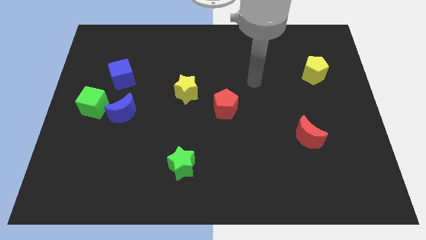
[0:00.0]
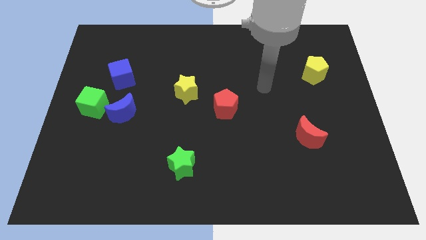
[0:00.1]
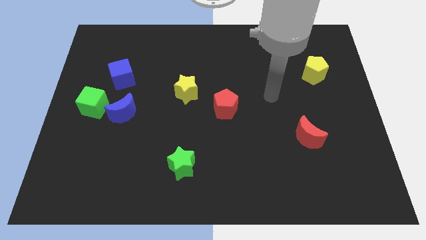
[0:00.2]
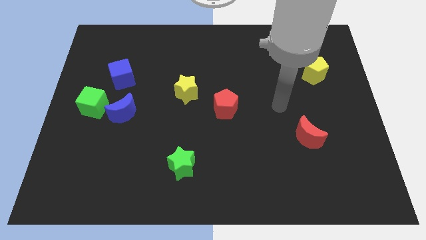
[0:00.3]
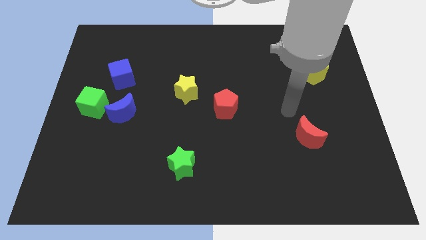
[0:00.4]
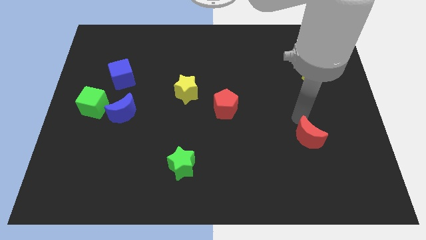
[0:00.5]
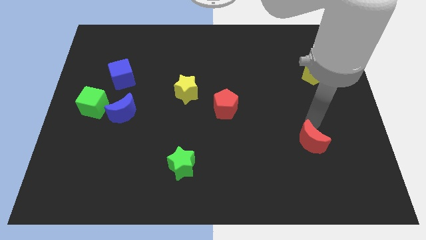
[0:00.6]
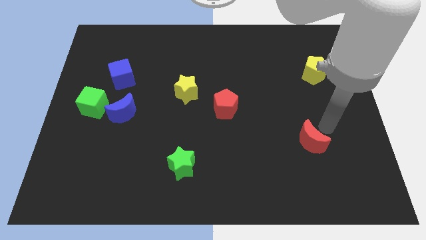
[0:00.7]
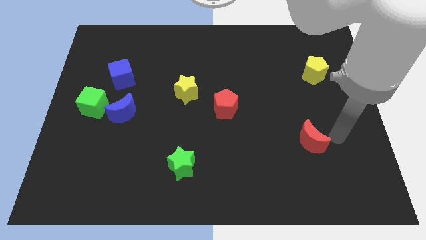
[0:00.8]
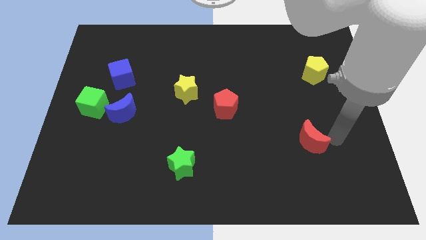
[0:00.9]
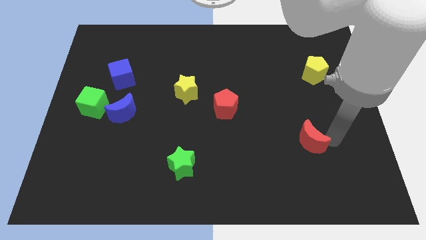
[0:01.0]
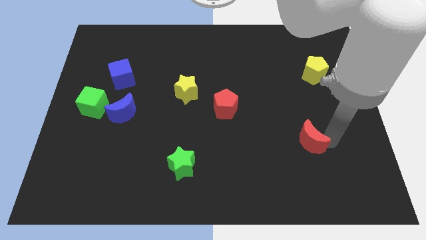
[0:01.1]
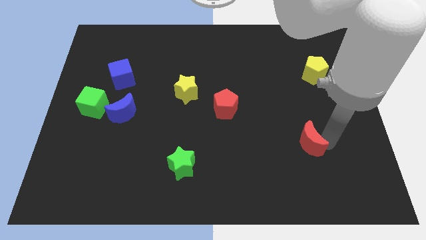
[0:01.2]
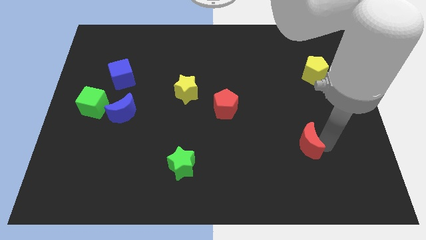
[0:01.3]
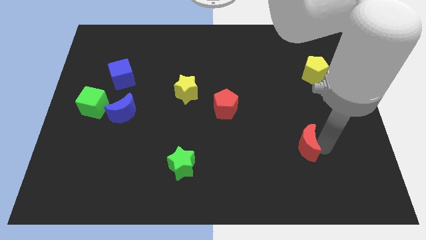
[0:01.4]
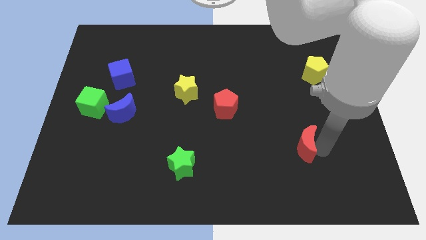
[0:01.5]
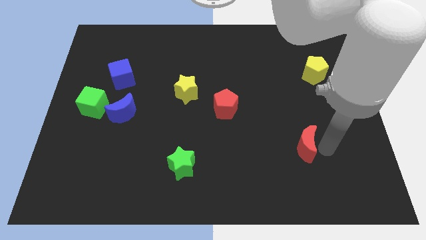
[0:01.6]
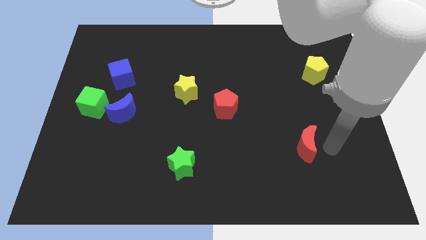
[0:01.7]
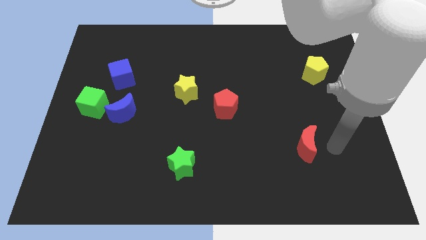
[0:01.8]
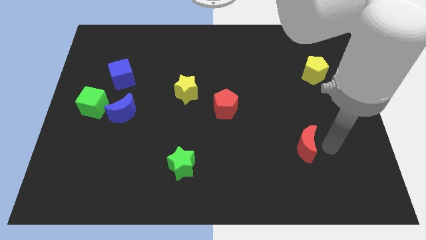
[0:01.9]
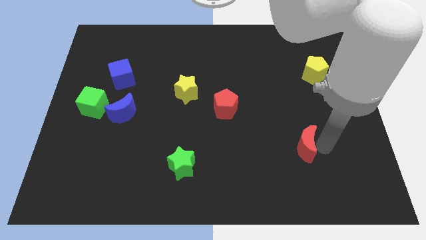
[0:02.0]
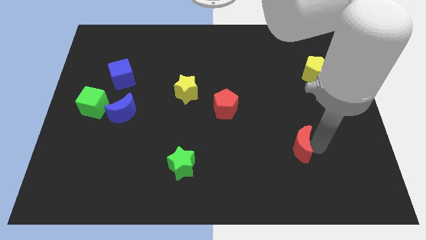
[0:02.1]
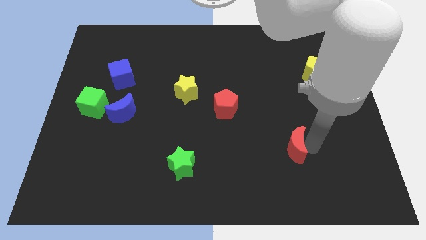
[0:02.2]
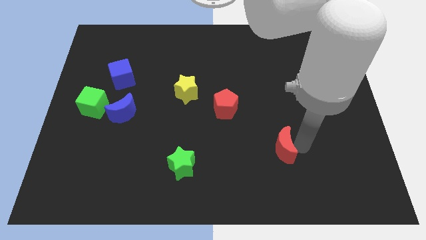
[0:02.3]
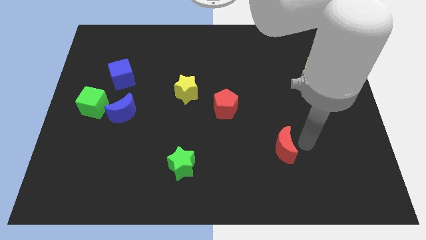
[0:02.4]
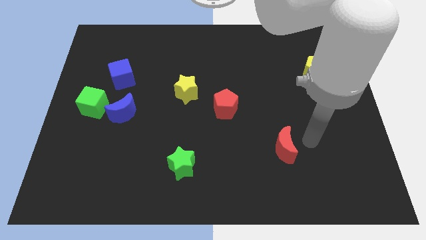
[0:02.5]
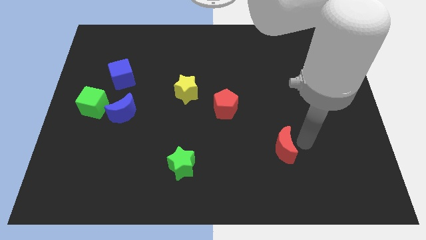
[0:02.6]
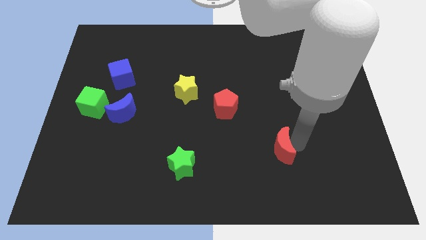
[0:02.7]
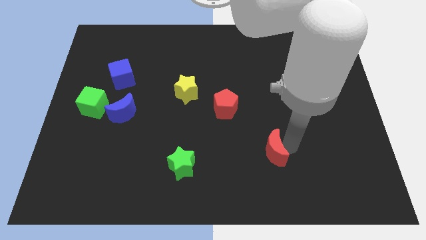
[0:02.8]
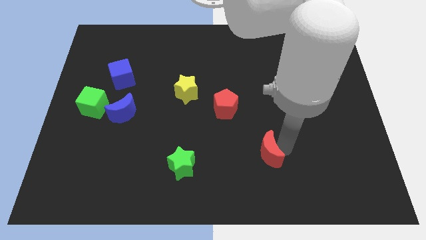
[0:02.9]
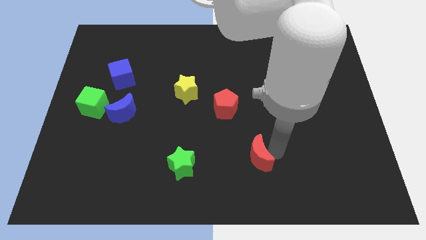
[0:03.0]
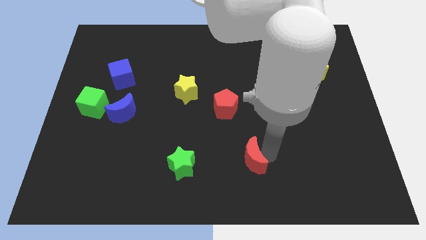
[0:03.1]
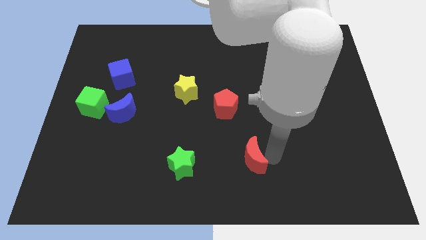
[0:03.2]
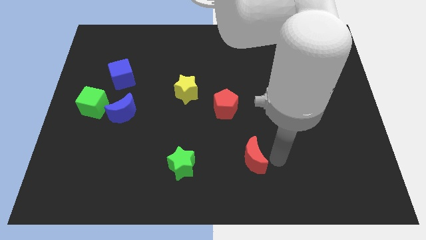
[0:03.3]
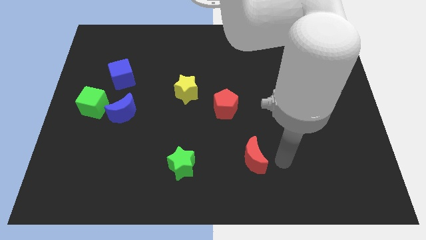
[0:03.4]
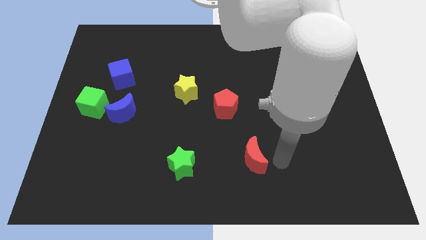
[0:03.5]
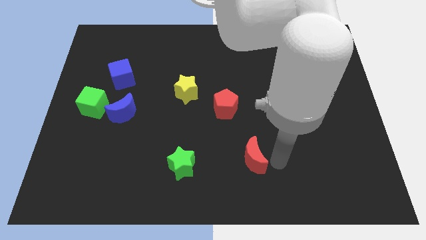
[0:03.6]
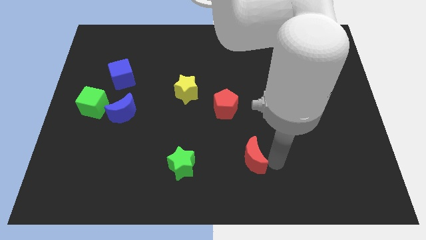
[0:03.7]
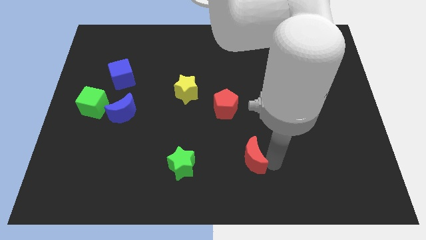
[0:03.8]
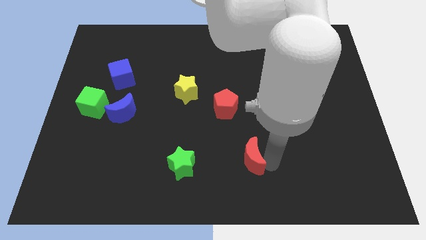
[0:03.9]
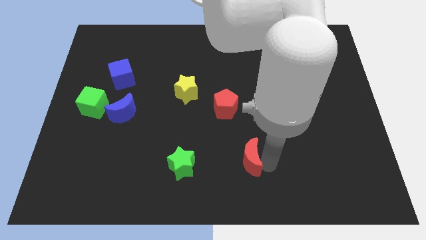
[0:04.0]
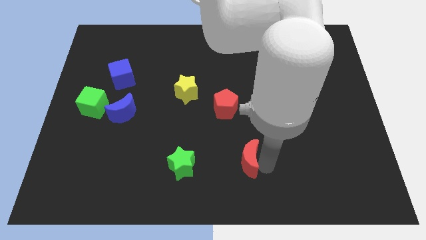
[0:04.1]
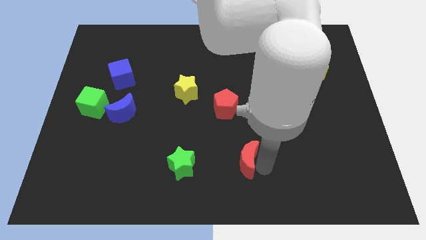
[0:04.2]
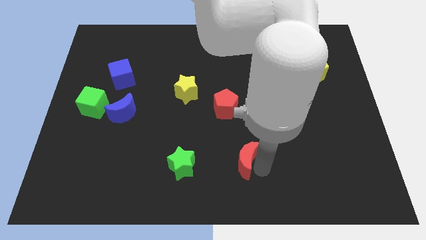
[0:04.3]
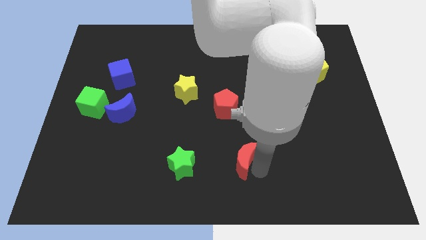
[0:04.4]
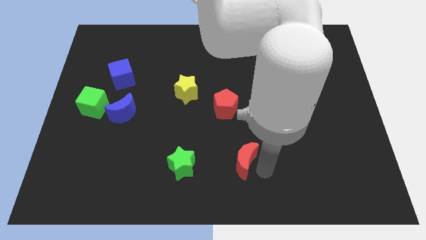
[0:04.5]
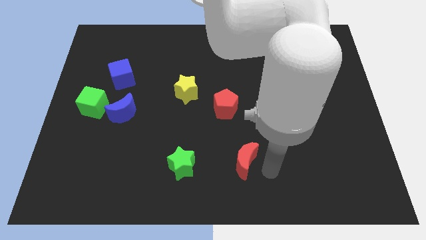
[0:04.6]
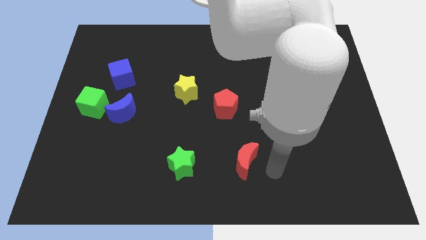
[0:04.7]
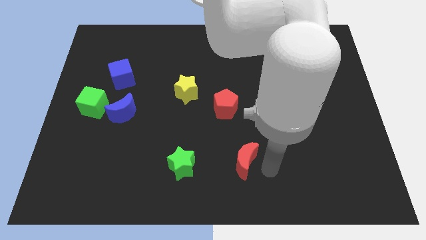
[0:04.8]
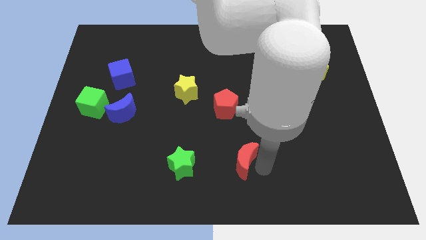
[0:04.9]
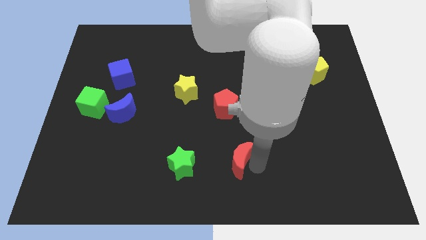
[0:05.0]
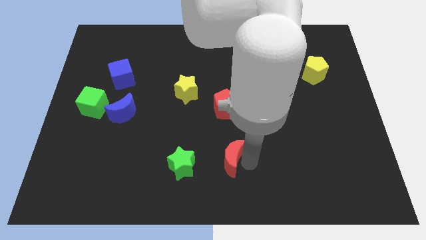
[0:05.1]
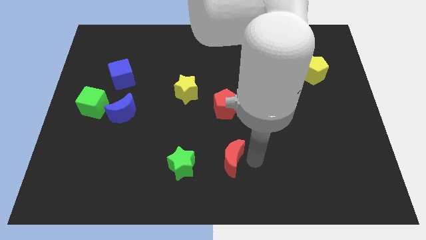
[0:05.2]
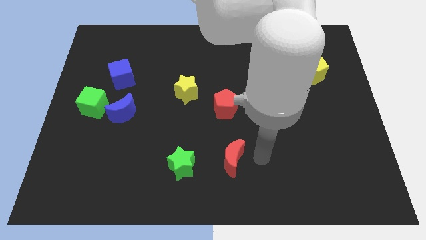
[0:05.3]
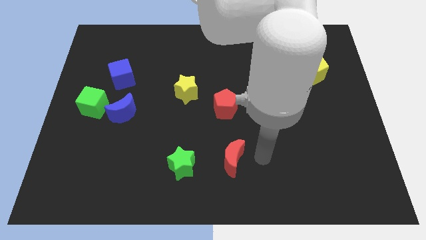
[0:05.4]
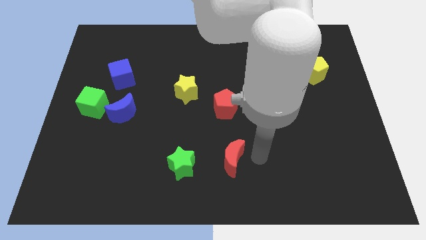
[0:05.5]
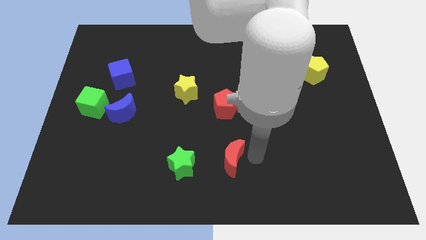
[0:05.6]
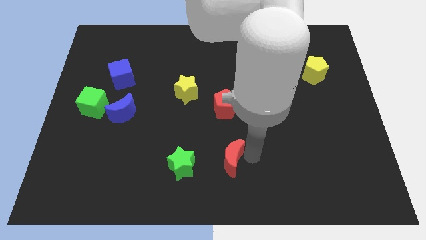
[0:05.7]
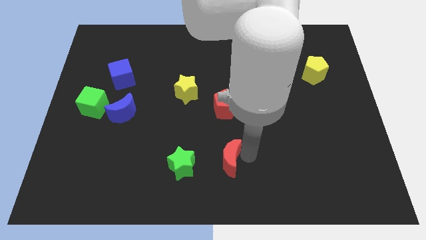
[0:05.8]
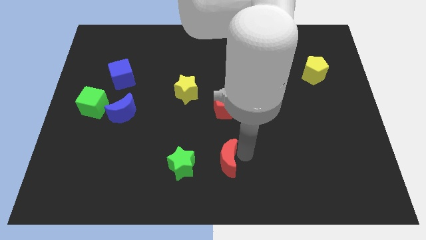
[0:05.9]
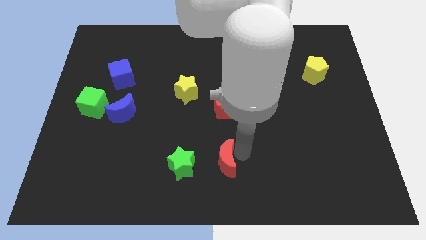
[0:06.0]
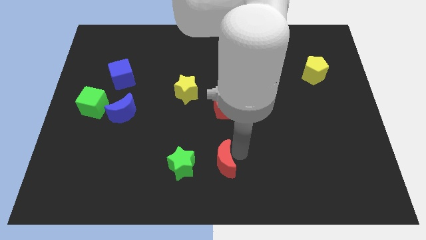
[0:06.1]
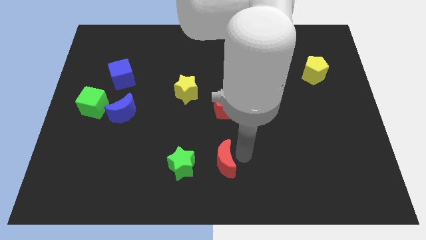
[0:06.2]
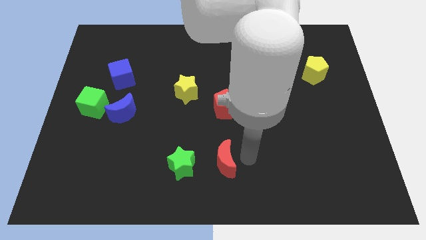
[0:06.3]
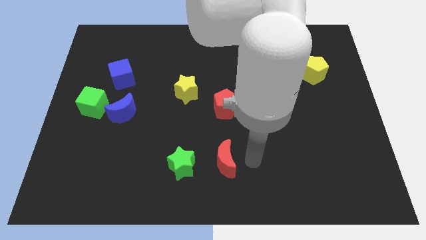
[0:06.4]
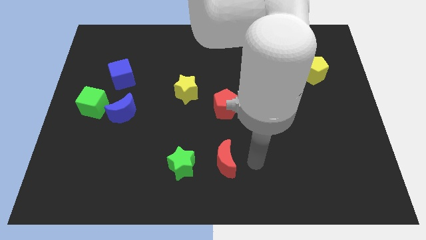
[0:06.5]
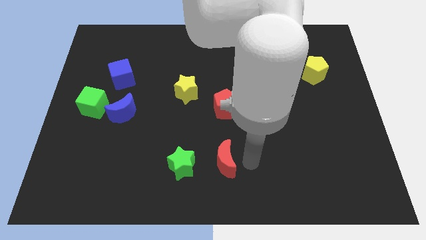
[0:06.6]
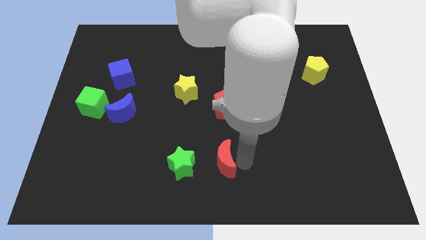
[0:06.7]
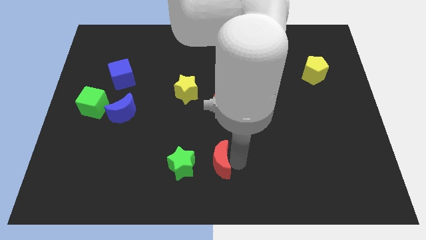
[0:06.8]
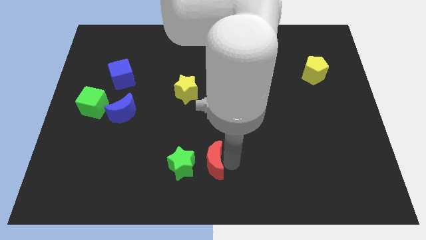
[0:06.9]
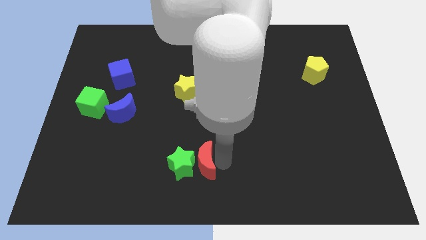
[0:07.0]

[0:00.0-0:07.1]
move the red moon close to the green star
